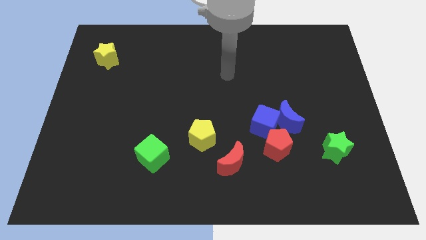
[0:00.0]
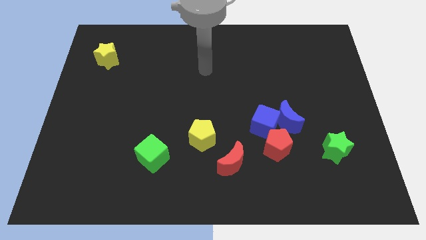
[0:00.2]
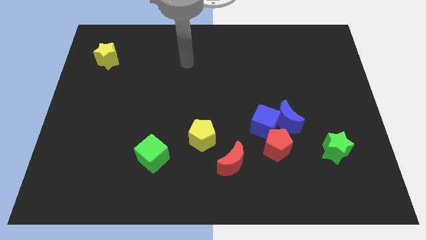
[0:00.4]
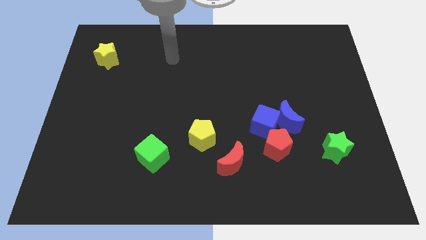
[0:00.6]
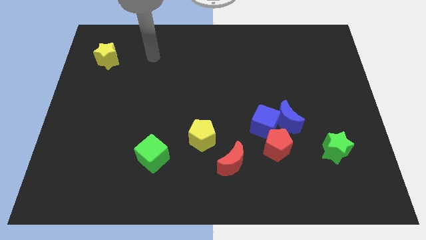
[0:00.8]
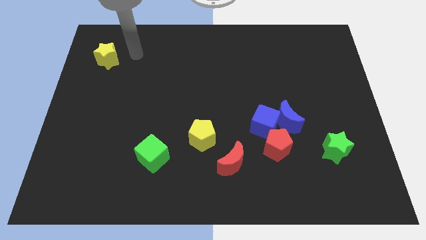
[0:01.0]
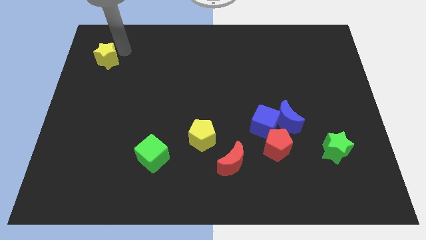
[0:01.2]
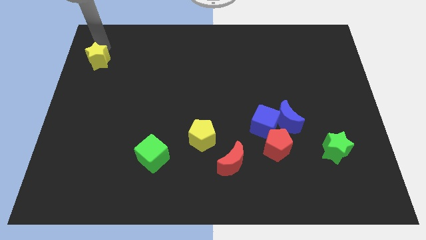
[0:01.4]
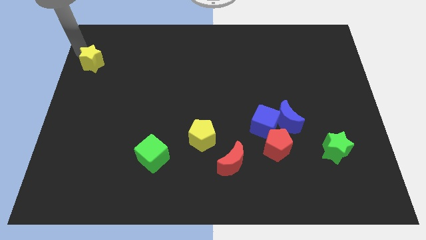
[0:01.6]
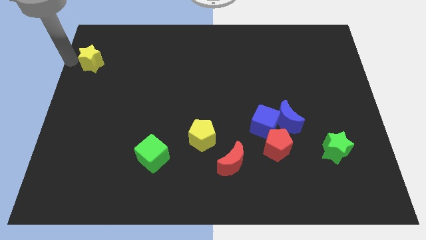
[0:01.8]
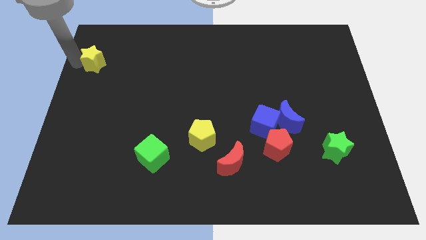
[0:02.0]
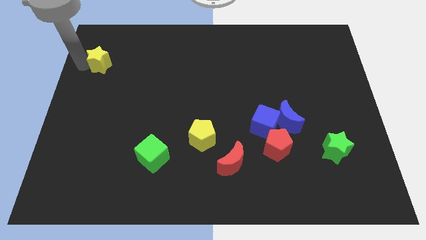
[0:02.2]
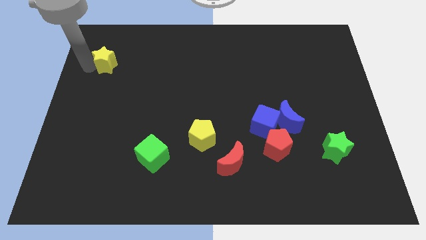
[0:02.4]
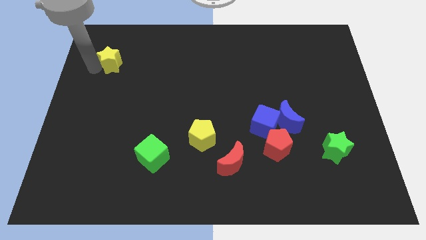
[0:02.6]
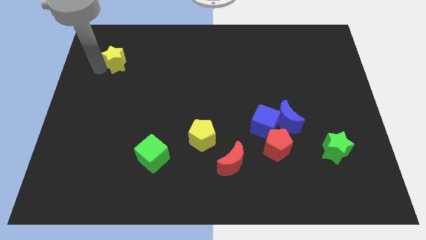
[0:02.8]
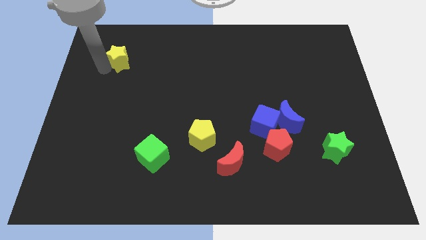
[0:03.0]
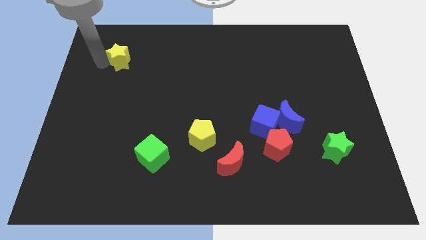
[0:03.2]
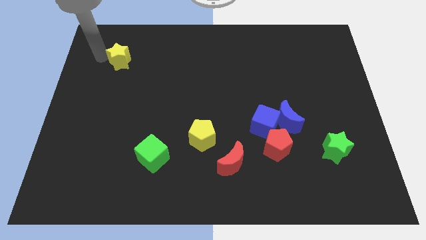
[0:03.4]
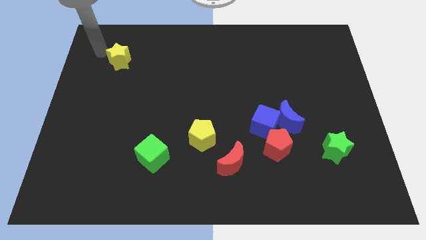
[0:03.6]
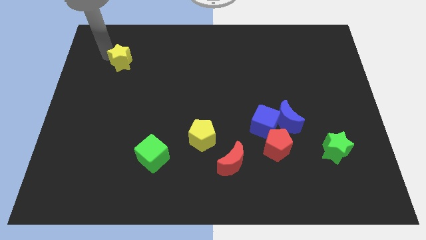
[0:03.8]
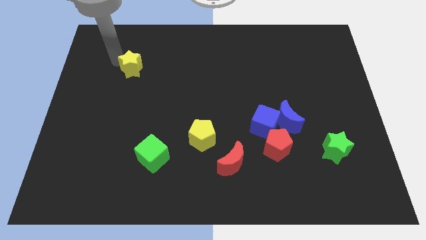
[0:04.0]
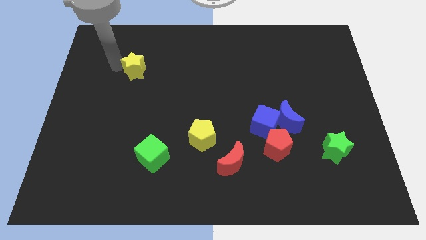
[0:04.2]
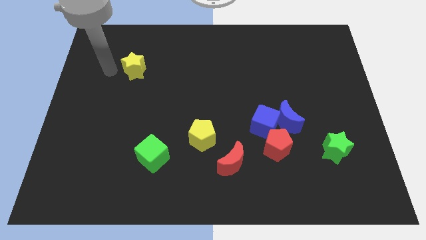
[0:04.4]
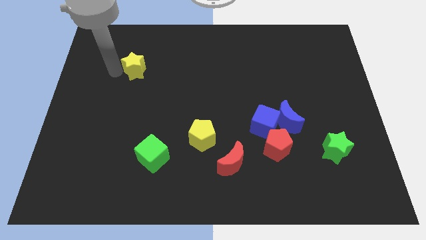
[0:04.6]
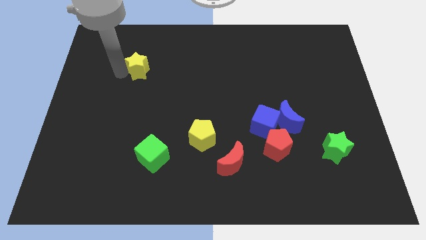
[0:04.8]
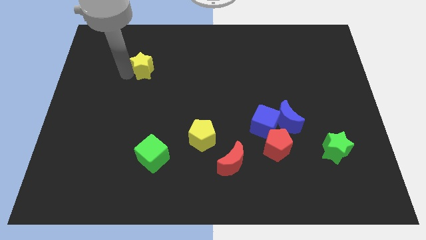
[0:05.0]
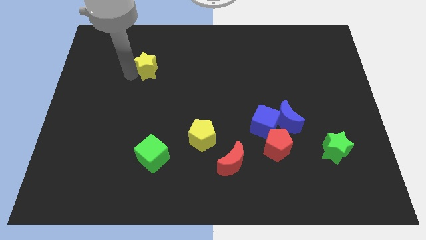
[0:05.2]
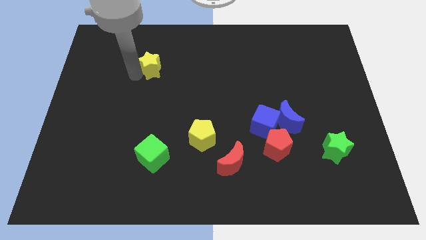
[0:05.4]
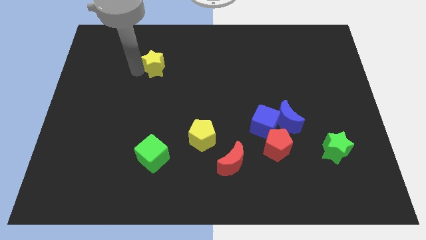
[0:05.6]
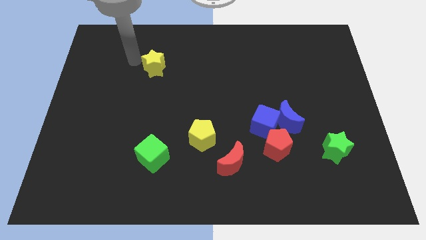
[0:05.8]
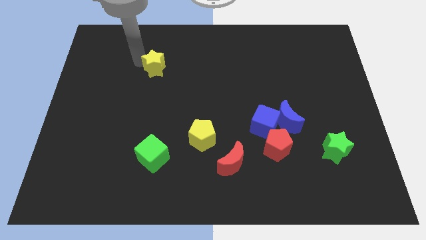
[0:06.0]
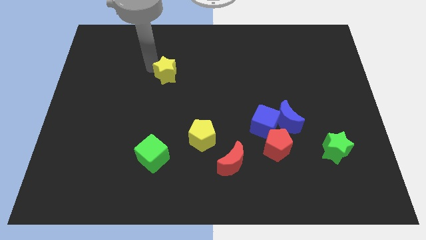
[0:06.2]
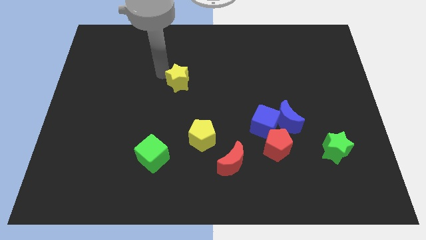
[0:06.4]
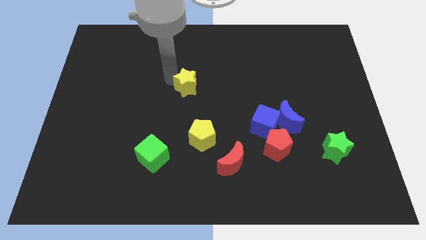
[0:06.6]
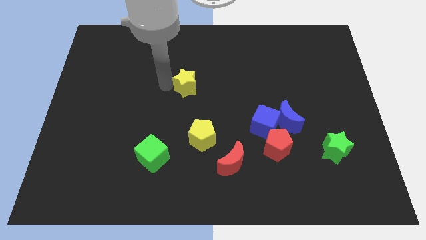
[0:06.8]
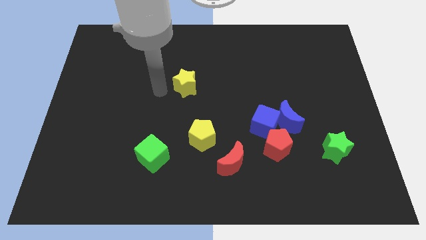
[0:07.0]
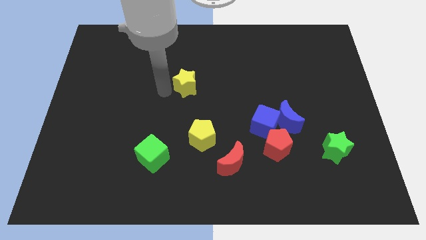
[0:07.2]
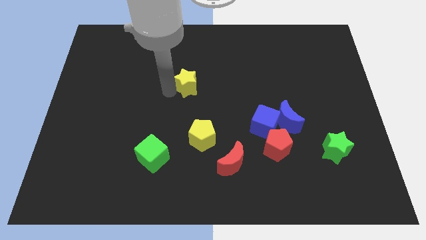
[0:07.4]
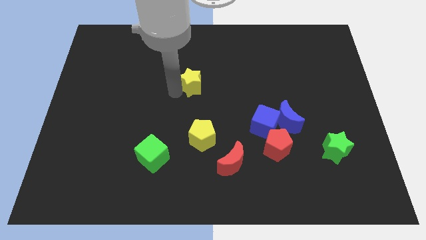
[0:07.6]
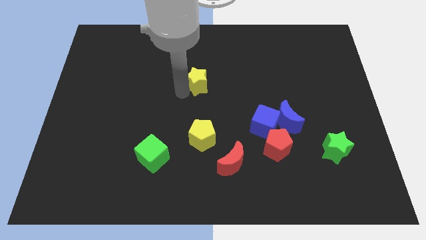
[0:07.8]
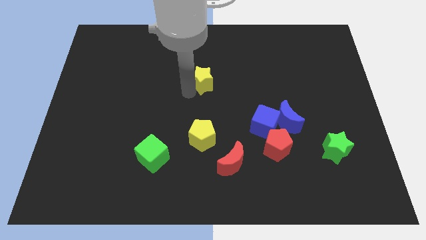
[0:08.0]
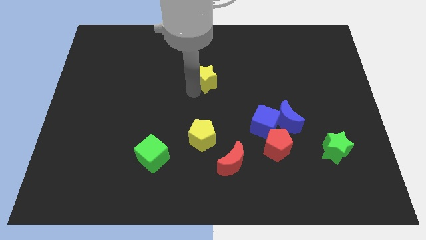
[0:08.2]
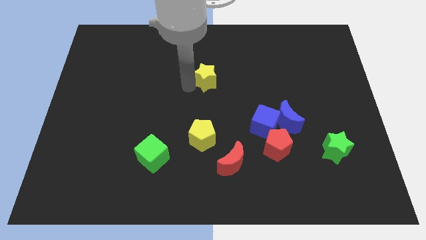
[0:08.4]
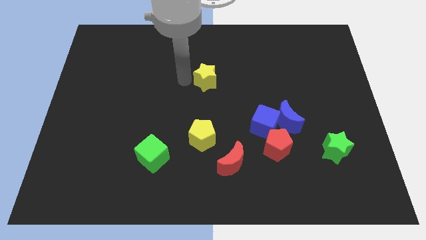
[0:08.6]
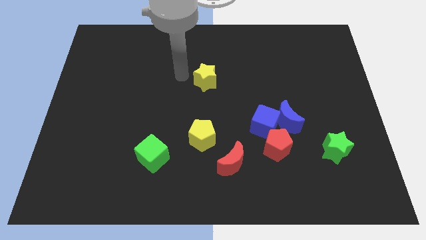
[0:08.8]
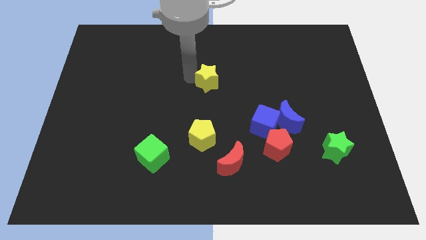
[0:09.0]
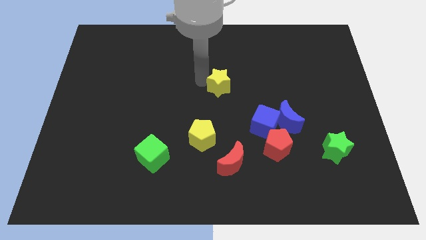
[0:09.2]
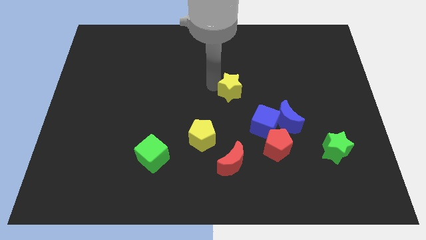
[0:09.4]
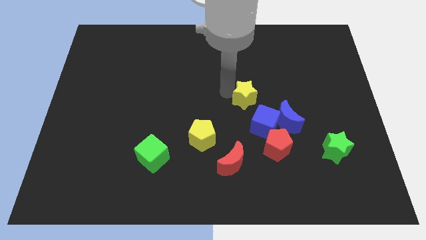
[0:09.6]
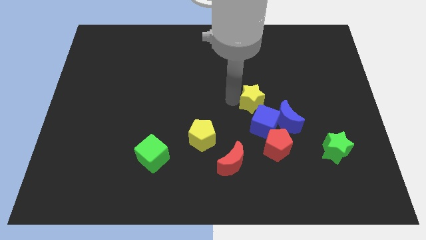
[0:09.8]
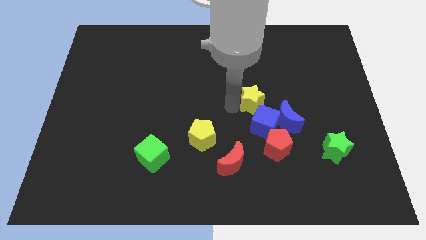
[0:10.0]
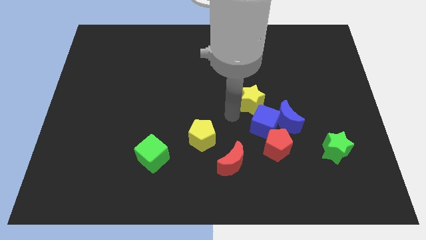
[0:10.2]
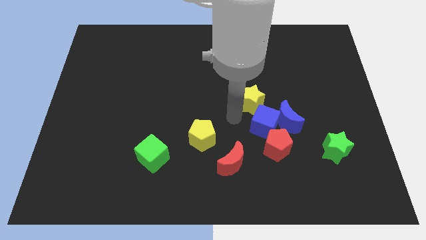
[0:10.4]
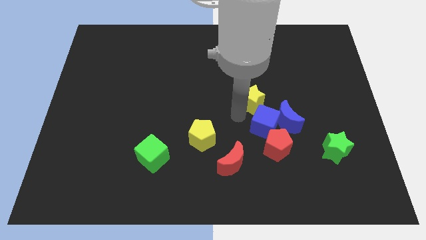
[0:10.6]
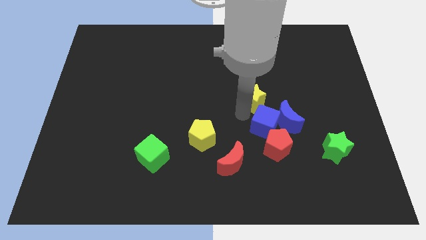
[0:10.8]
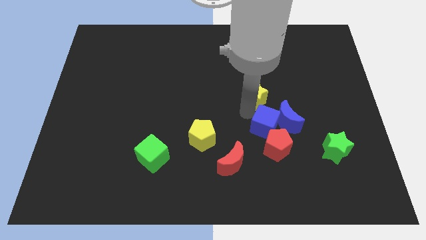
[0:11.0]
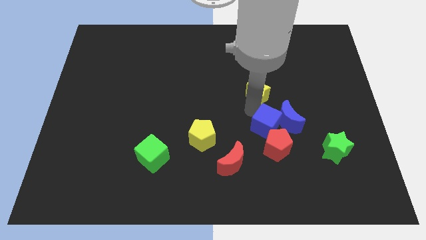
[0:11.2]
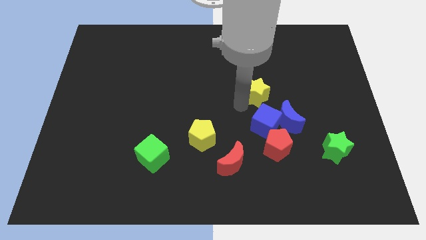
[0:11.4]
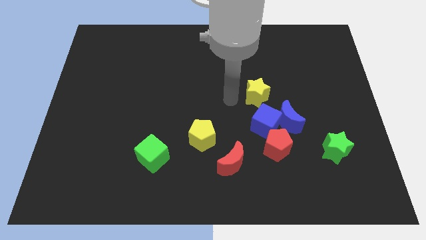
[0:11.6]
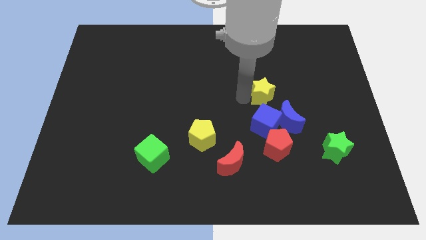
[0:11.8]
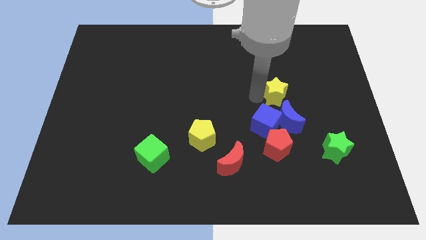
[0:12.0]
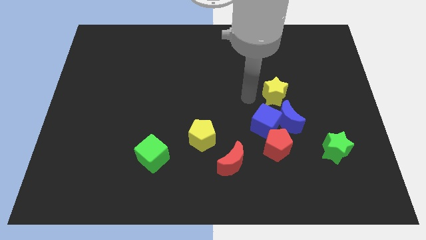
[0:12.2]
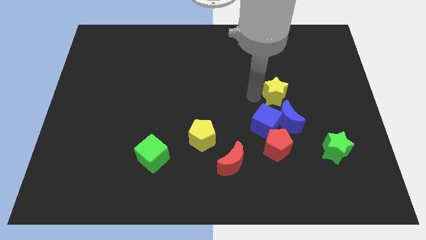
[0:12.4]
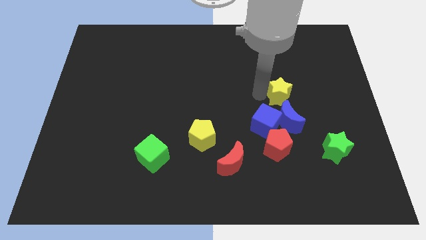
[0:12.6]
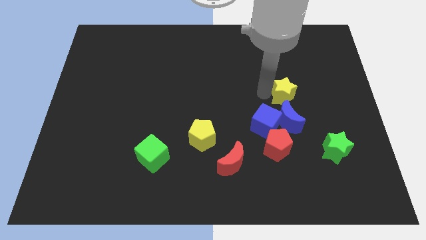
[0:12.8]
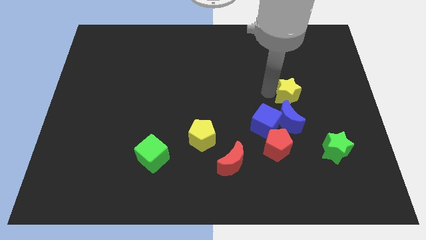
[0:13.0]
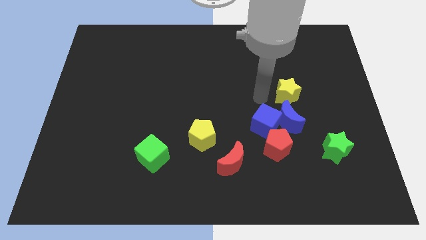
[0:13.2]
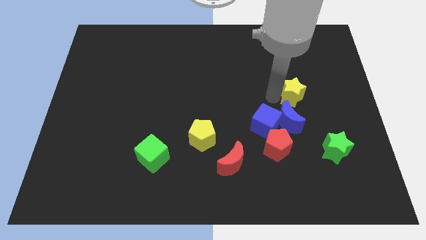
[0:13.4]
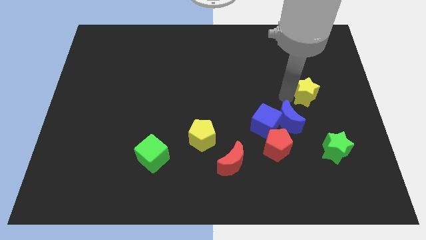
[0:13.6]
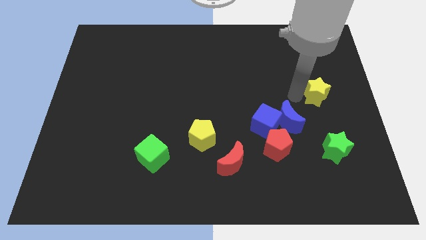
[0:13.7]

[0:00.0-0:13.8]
move the yellow star to the center right
